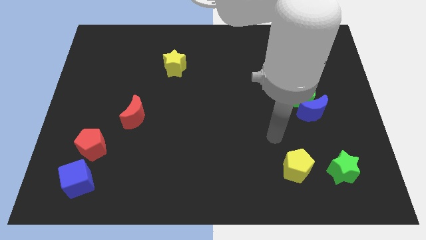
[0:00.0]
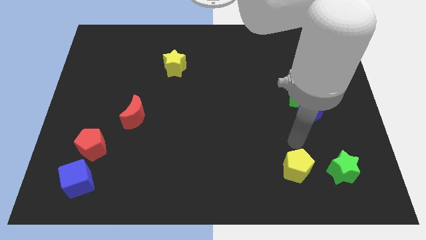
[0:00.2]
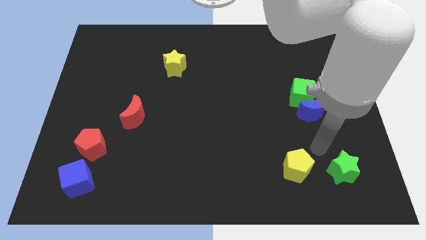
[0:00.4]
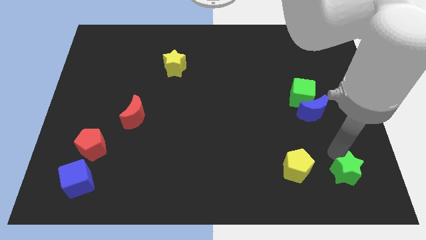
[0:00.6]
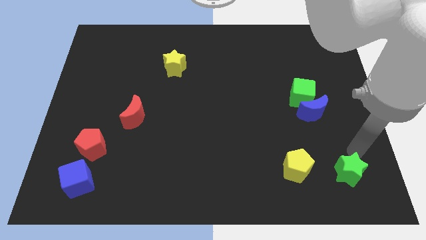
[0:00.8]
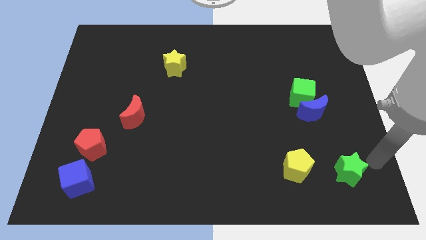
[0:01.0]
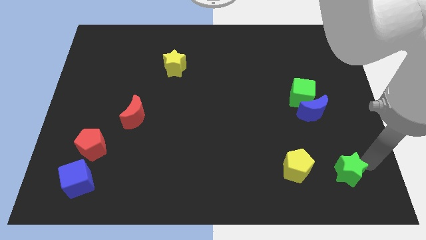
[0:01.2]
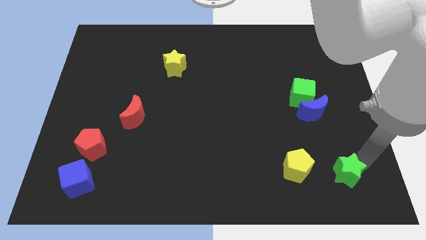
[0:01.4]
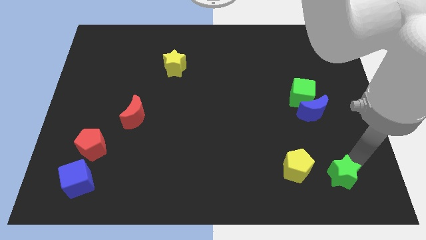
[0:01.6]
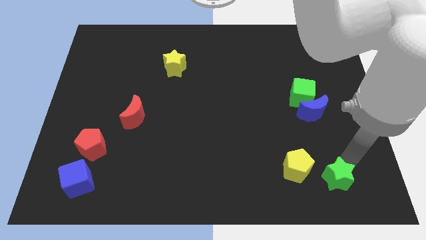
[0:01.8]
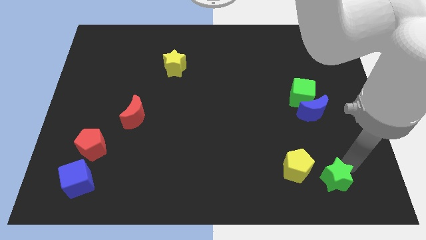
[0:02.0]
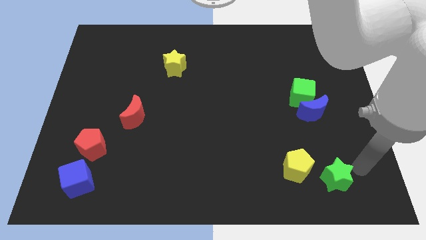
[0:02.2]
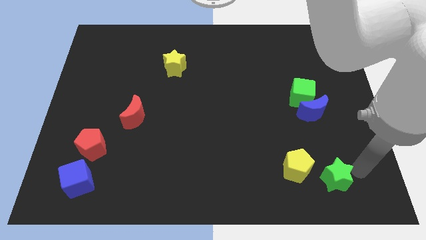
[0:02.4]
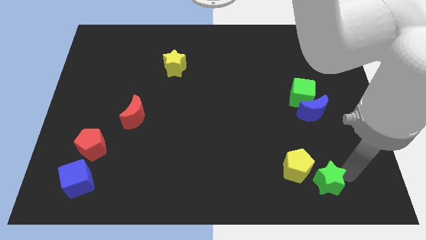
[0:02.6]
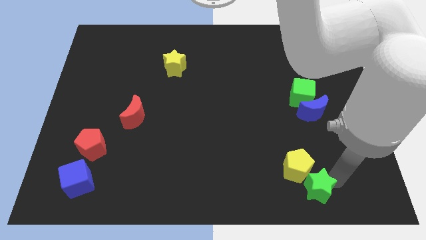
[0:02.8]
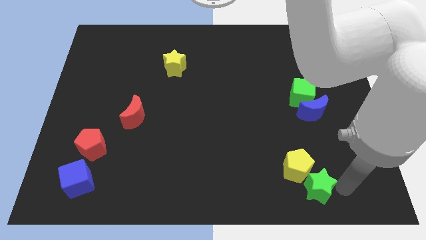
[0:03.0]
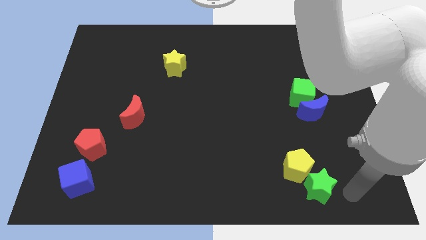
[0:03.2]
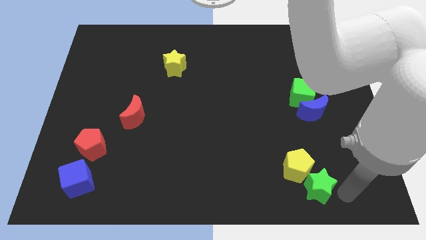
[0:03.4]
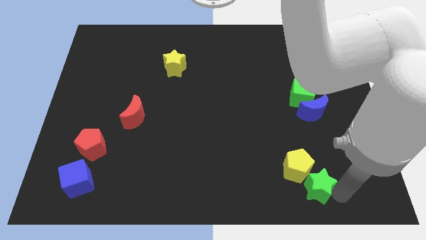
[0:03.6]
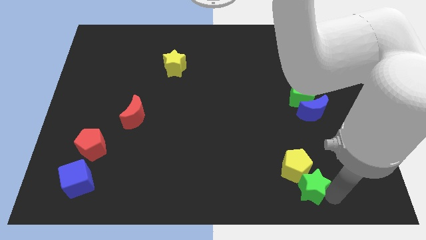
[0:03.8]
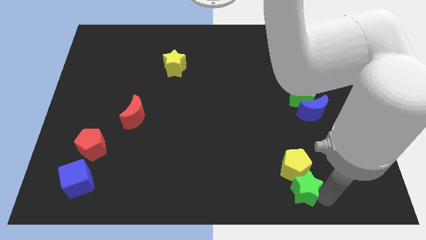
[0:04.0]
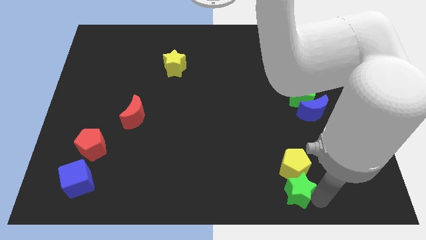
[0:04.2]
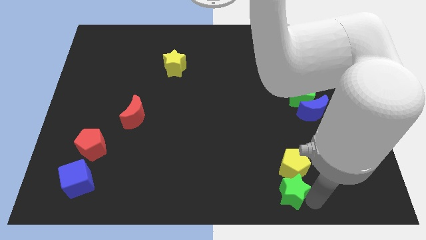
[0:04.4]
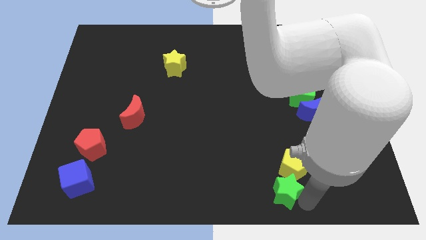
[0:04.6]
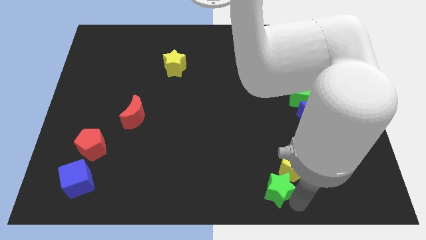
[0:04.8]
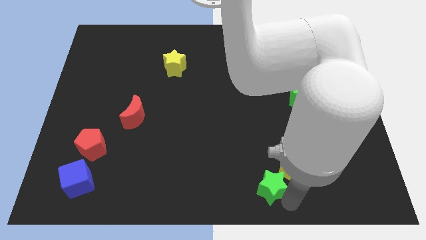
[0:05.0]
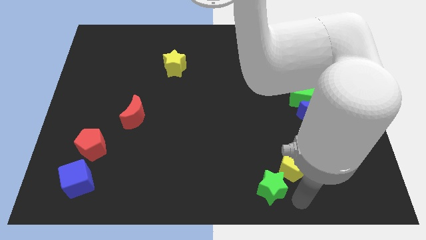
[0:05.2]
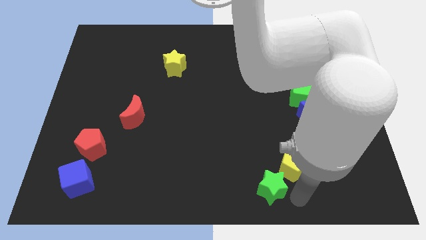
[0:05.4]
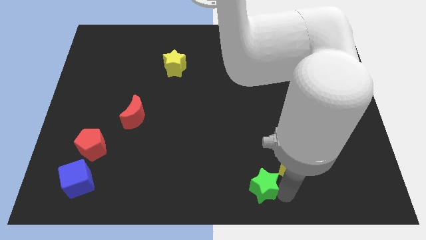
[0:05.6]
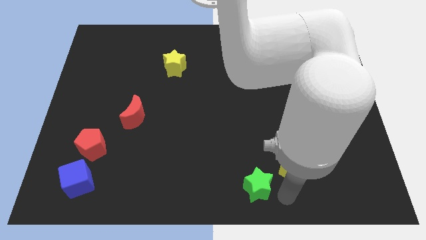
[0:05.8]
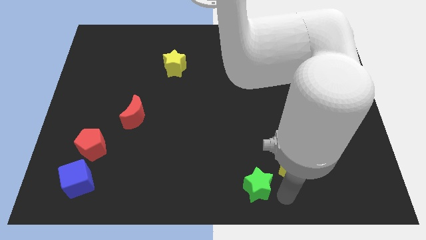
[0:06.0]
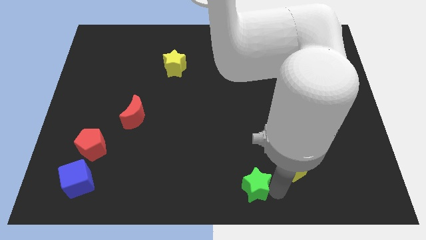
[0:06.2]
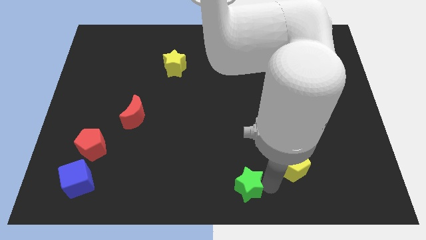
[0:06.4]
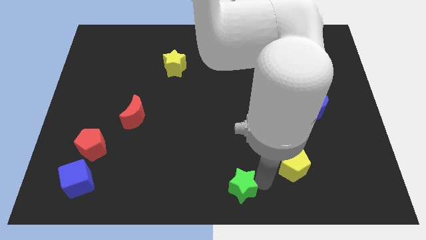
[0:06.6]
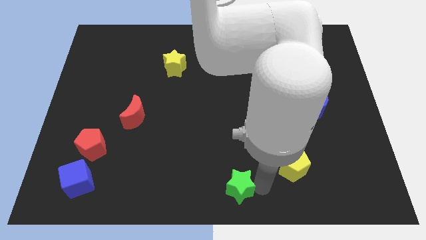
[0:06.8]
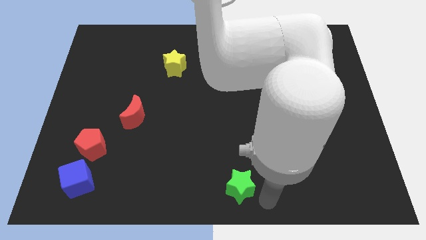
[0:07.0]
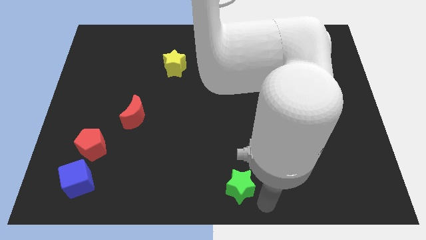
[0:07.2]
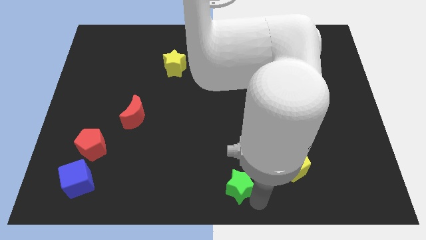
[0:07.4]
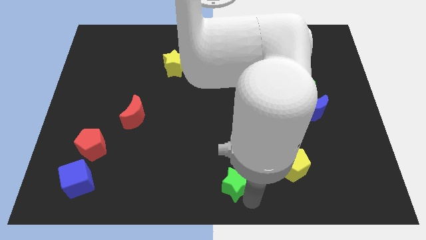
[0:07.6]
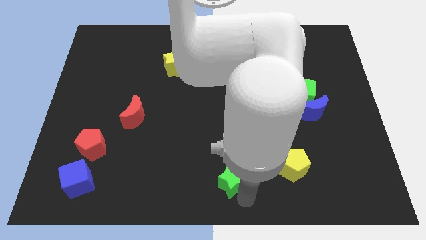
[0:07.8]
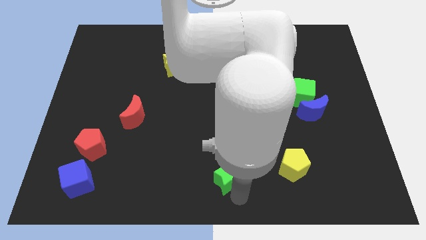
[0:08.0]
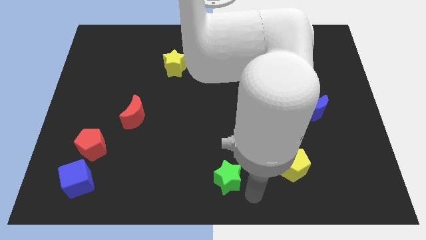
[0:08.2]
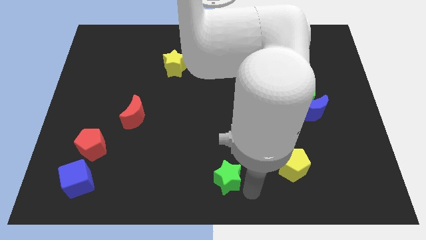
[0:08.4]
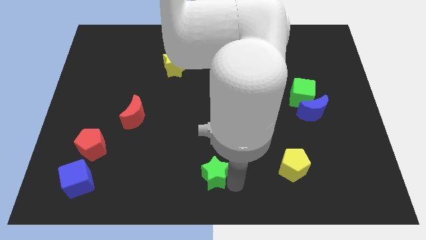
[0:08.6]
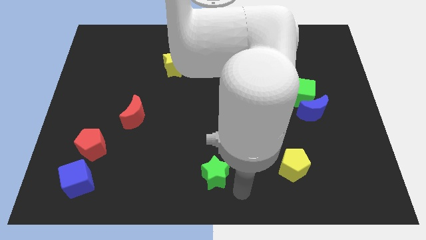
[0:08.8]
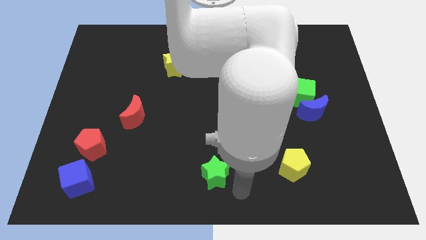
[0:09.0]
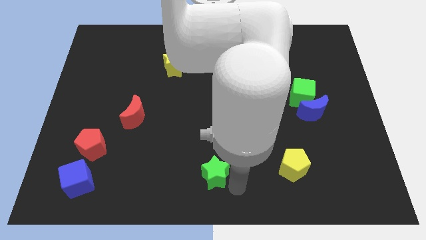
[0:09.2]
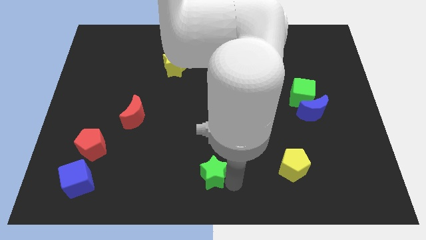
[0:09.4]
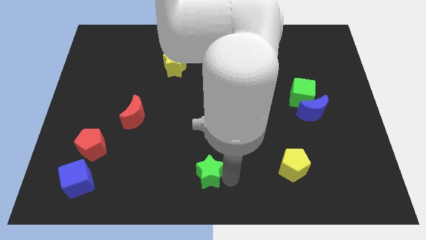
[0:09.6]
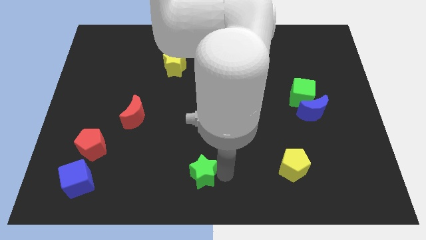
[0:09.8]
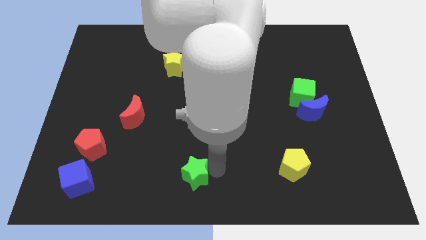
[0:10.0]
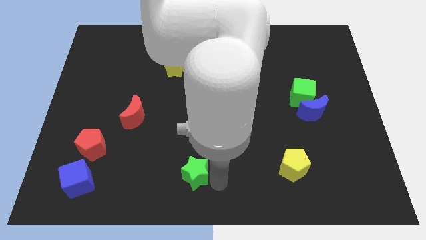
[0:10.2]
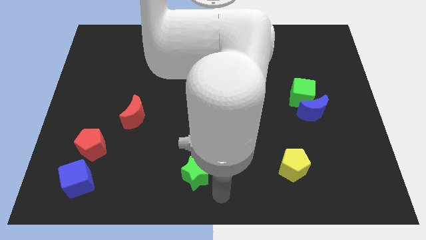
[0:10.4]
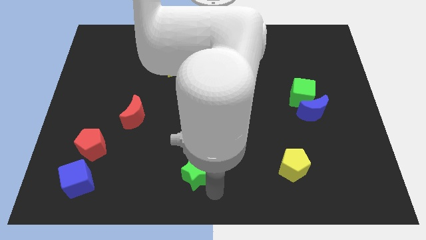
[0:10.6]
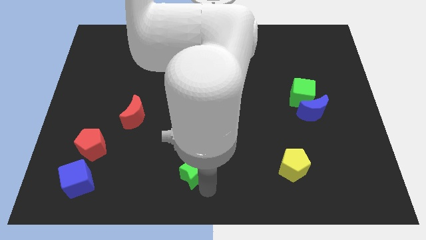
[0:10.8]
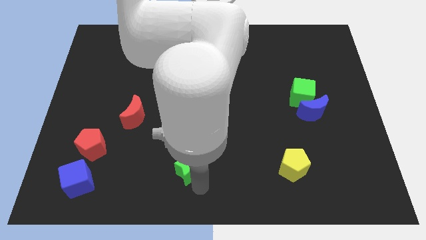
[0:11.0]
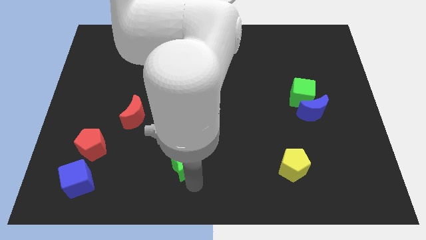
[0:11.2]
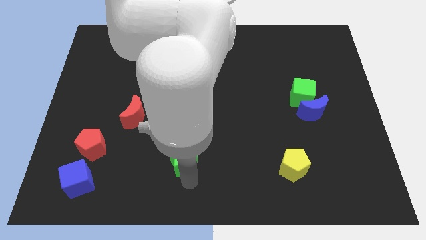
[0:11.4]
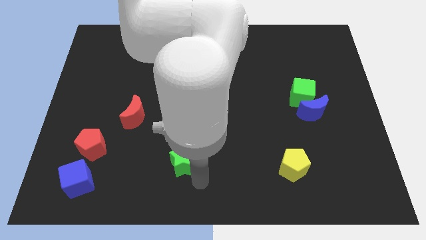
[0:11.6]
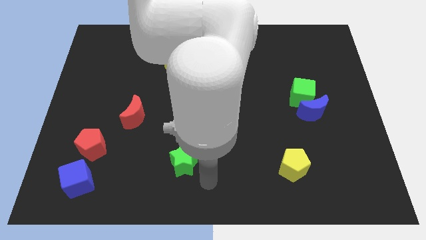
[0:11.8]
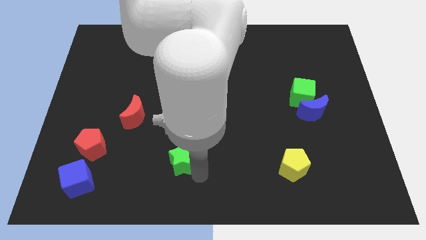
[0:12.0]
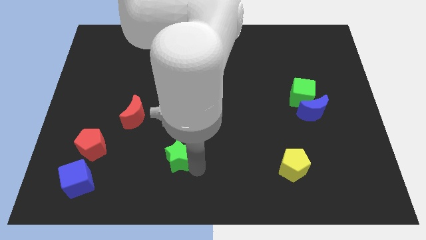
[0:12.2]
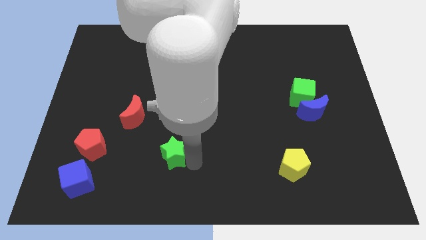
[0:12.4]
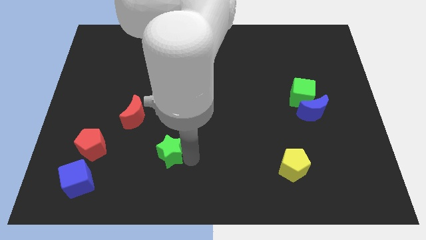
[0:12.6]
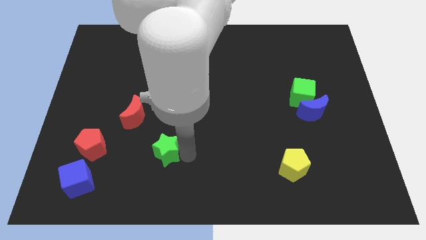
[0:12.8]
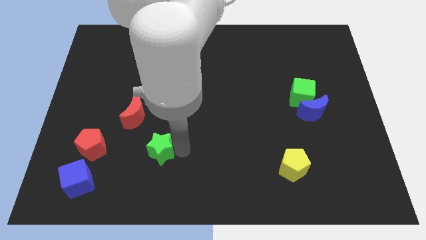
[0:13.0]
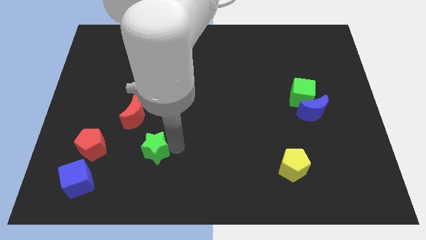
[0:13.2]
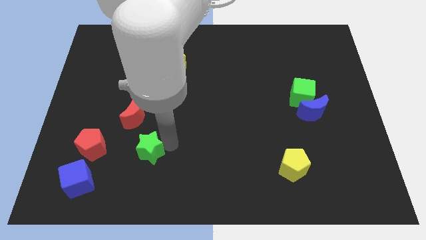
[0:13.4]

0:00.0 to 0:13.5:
move the green star to the bottom of the red moon

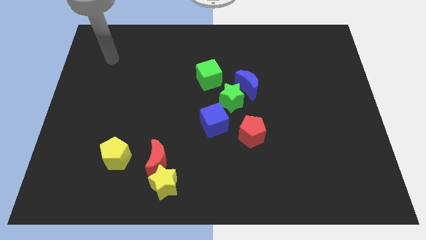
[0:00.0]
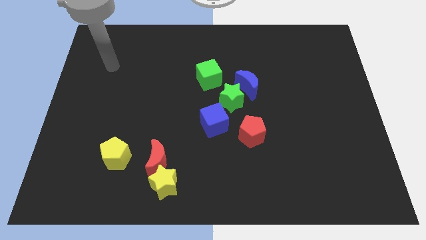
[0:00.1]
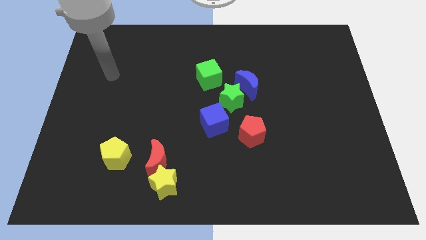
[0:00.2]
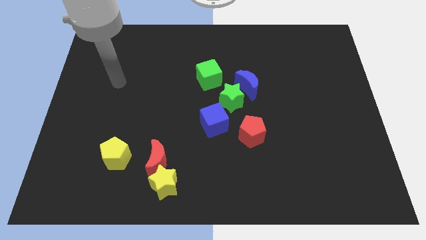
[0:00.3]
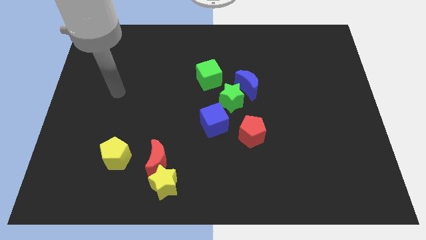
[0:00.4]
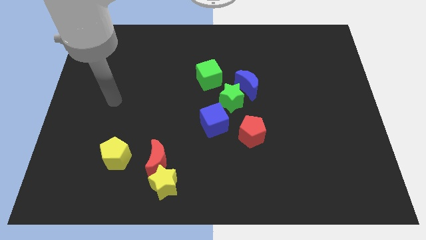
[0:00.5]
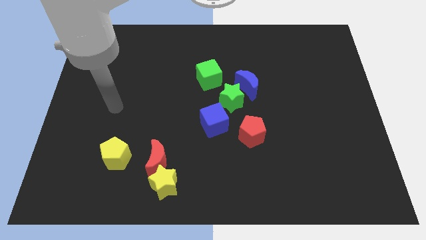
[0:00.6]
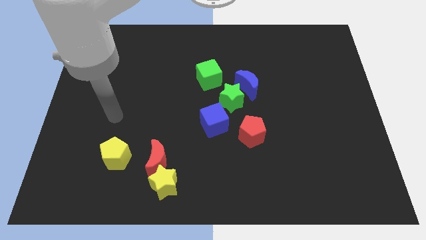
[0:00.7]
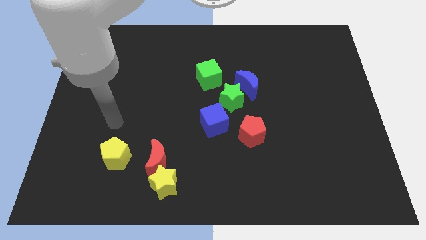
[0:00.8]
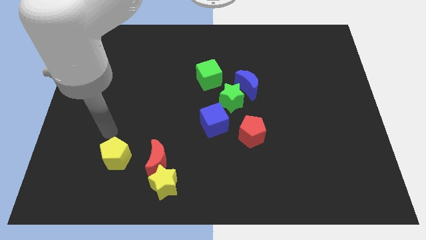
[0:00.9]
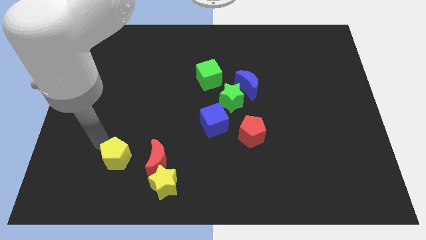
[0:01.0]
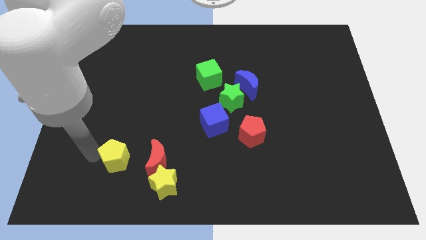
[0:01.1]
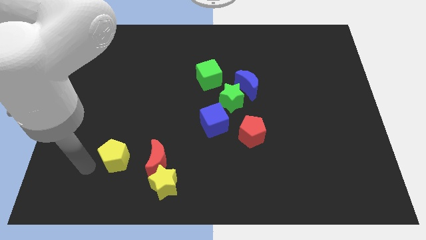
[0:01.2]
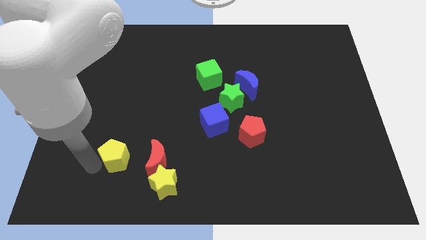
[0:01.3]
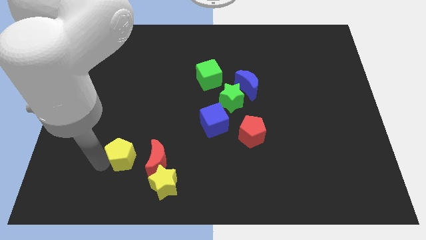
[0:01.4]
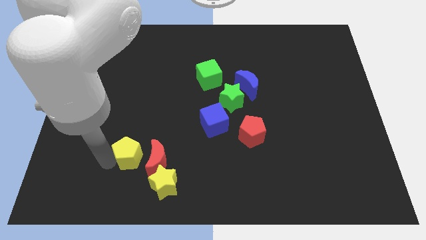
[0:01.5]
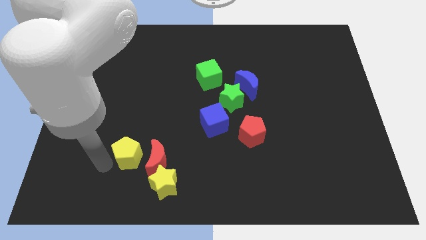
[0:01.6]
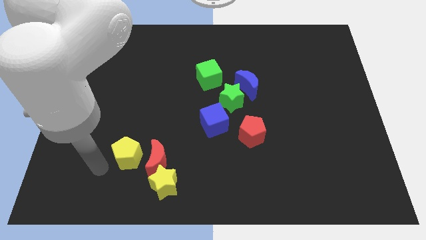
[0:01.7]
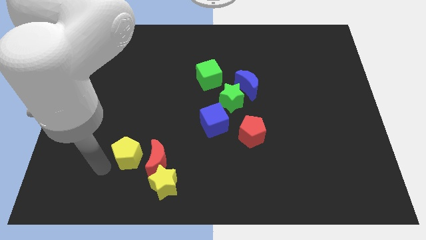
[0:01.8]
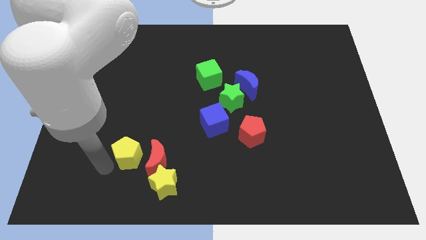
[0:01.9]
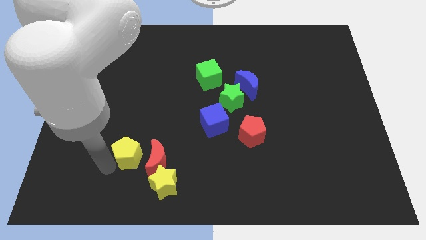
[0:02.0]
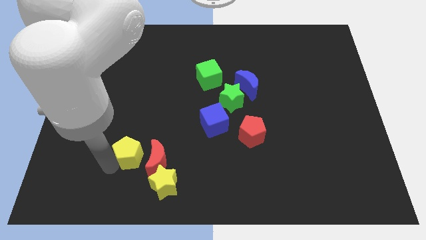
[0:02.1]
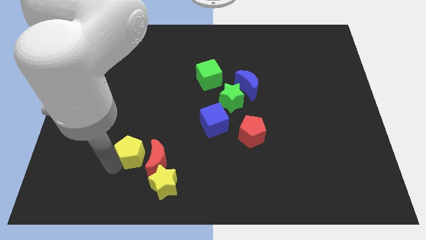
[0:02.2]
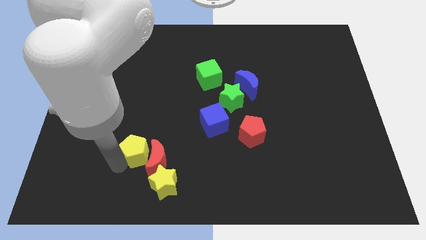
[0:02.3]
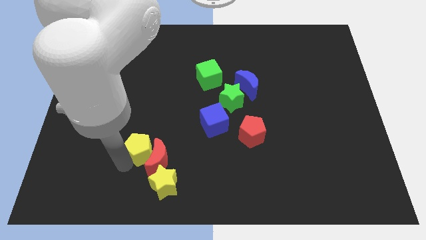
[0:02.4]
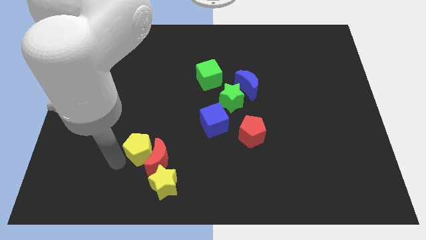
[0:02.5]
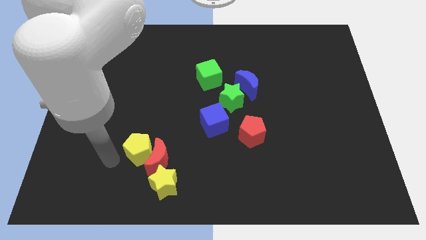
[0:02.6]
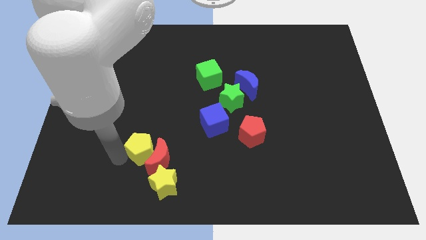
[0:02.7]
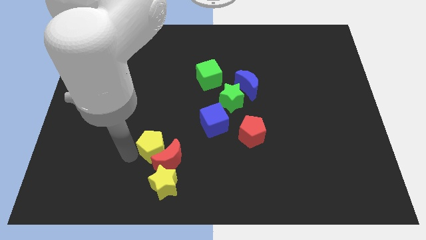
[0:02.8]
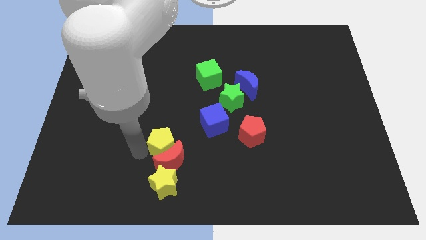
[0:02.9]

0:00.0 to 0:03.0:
push the yellow pentagon diagonally up and to the right of the red moon
